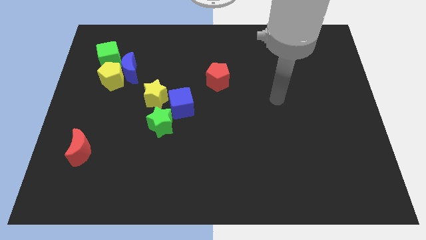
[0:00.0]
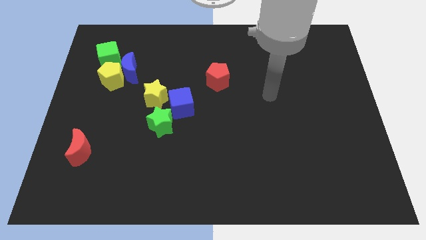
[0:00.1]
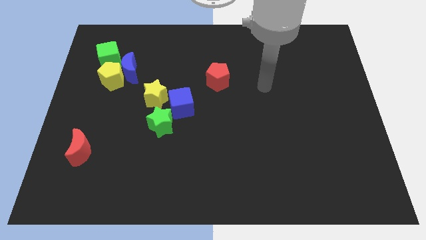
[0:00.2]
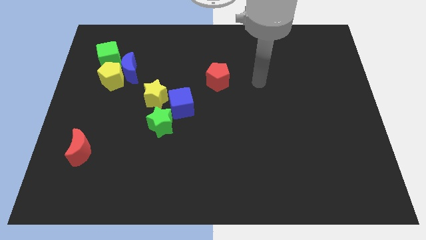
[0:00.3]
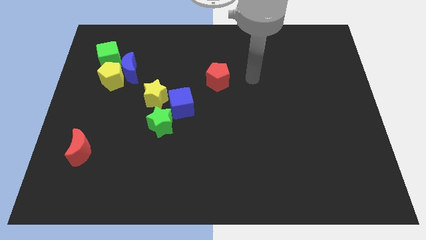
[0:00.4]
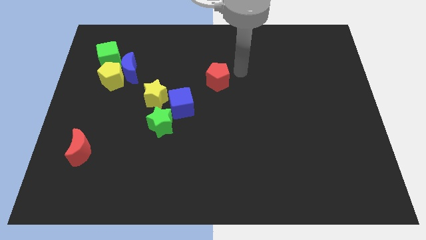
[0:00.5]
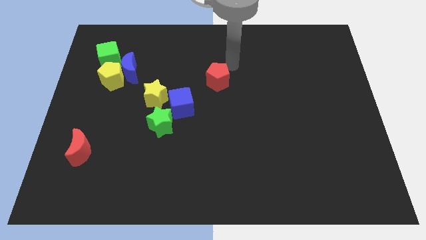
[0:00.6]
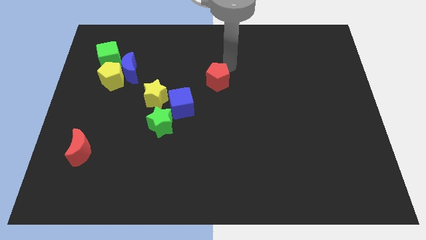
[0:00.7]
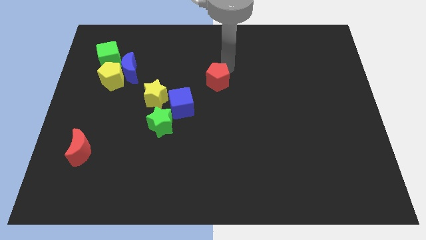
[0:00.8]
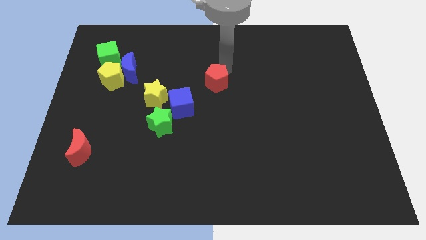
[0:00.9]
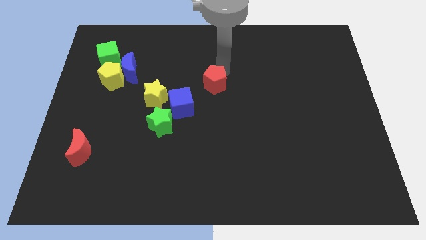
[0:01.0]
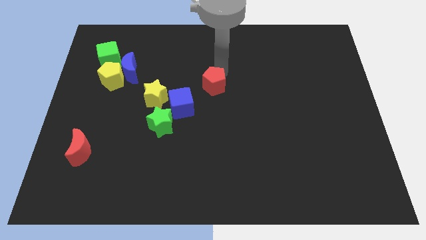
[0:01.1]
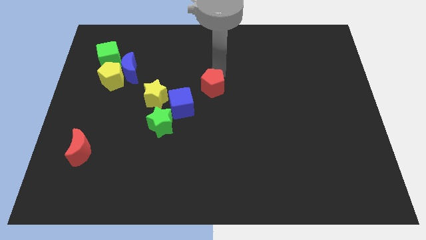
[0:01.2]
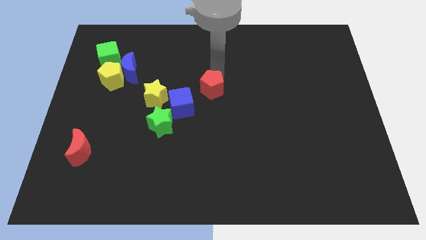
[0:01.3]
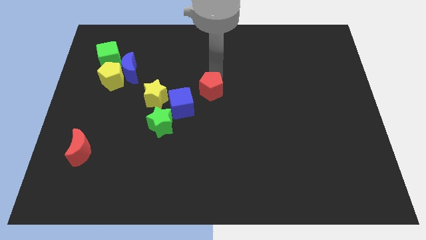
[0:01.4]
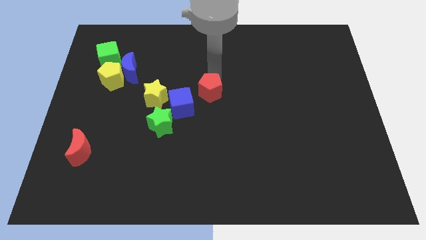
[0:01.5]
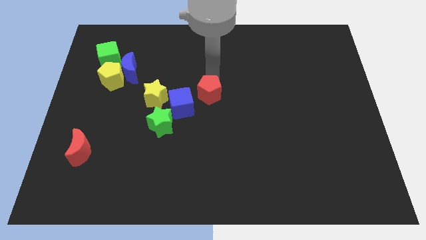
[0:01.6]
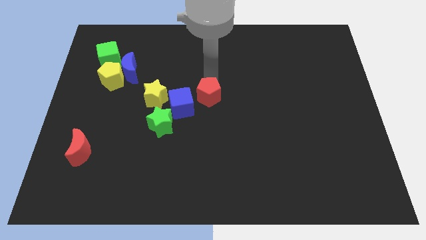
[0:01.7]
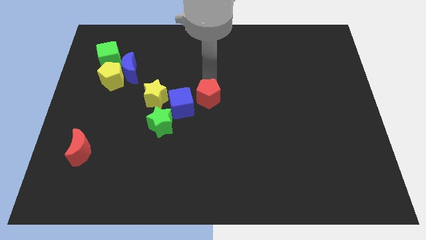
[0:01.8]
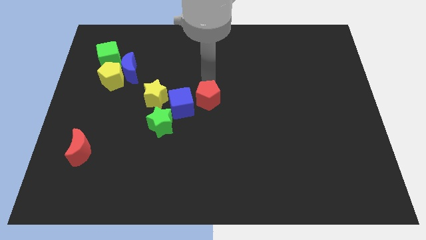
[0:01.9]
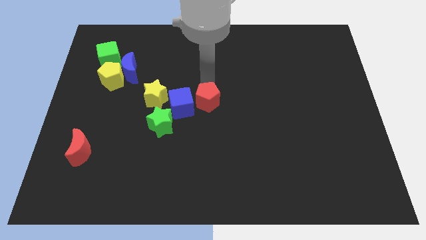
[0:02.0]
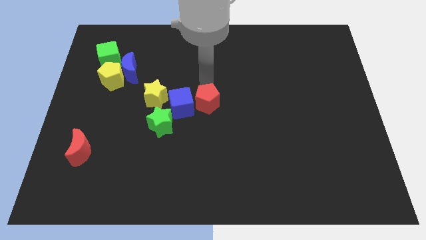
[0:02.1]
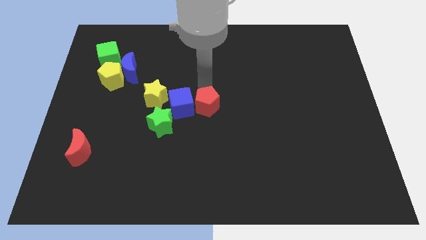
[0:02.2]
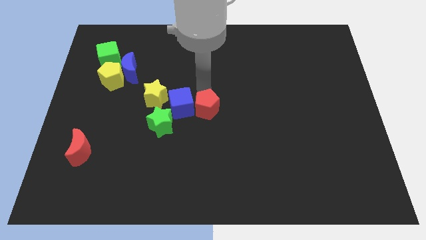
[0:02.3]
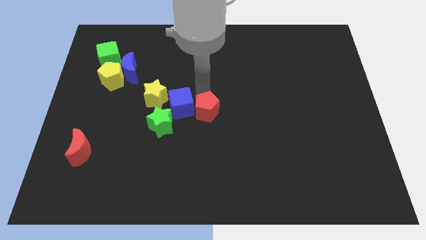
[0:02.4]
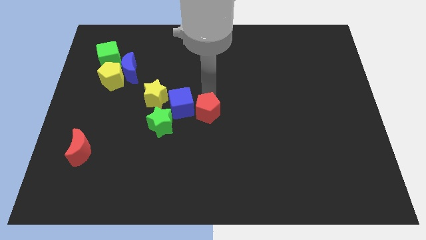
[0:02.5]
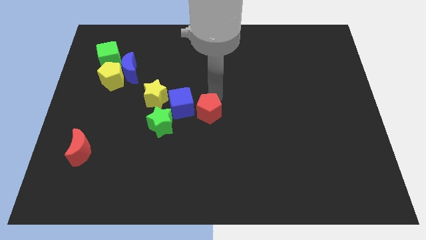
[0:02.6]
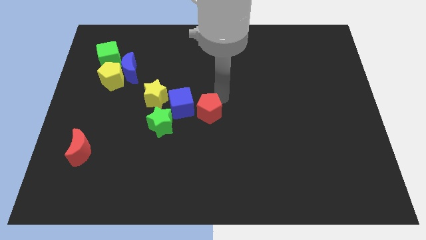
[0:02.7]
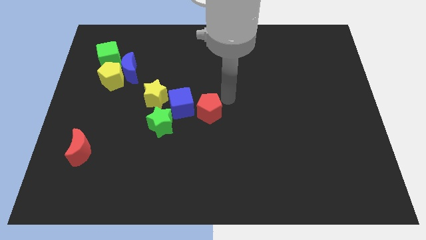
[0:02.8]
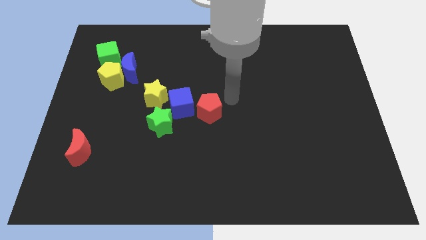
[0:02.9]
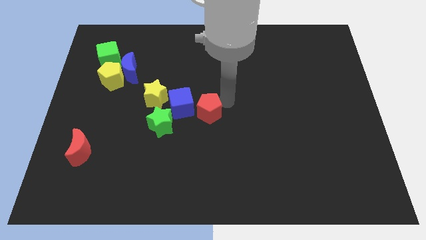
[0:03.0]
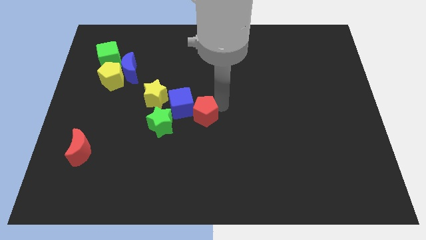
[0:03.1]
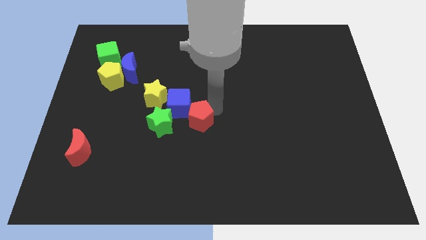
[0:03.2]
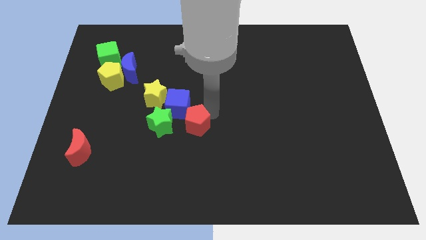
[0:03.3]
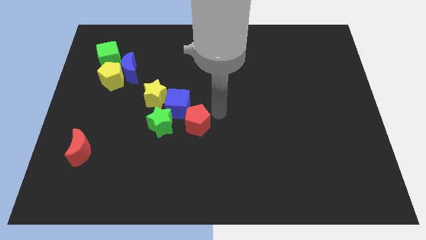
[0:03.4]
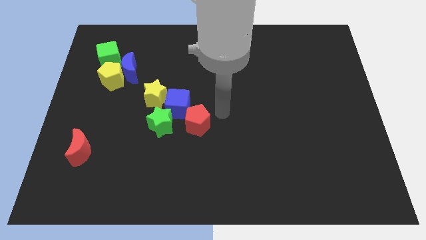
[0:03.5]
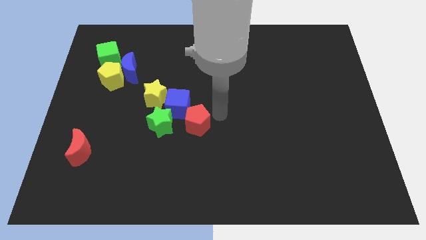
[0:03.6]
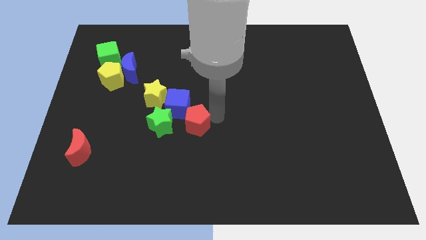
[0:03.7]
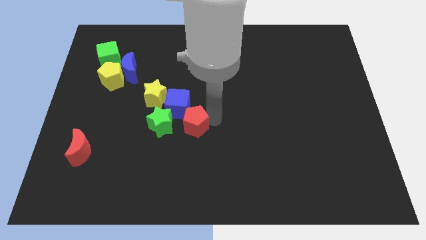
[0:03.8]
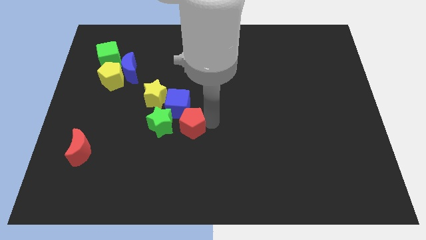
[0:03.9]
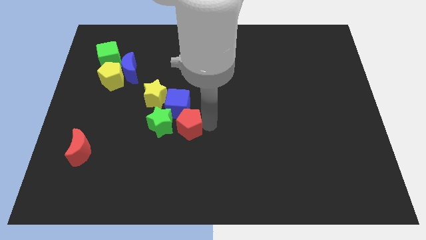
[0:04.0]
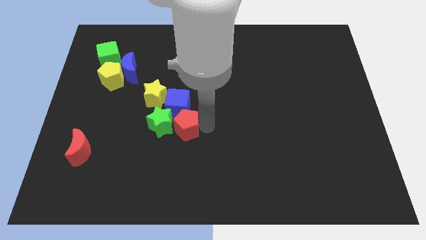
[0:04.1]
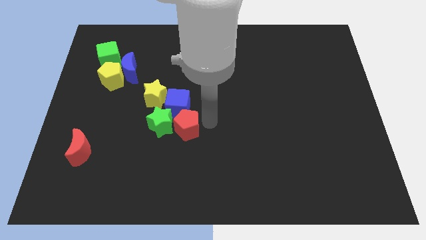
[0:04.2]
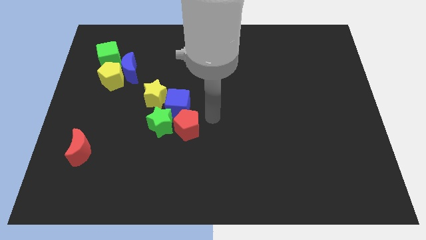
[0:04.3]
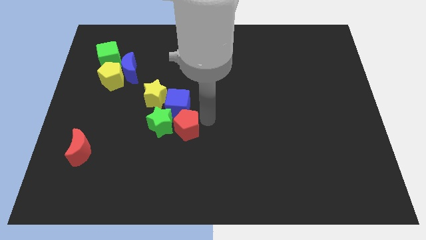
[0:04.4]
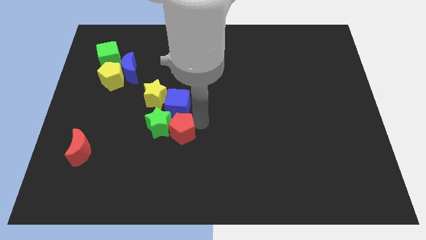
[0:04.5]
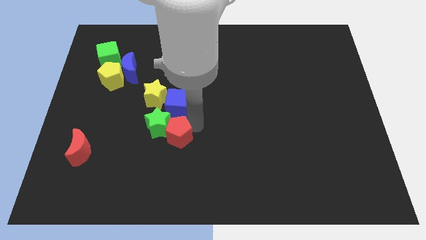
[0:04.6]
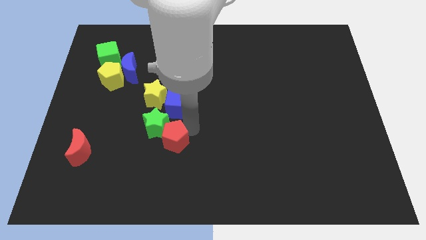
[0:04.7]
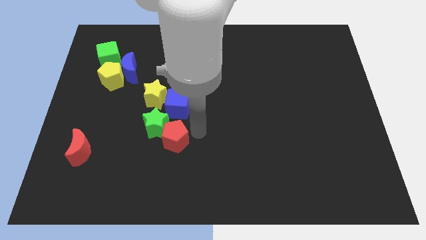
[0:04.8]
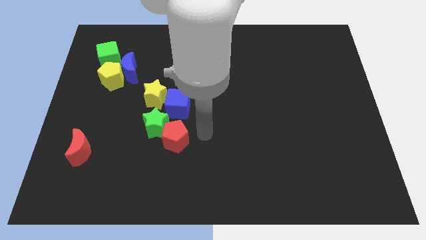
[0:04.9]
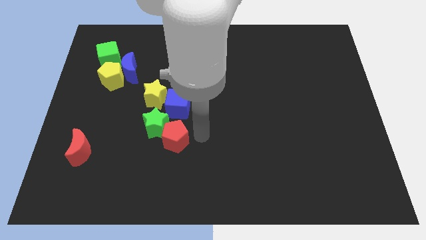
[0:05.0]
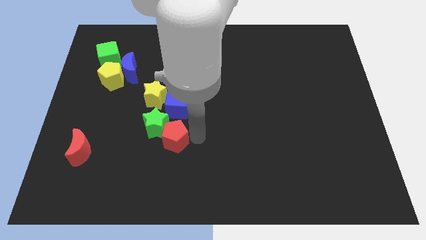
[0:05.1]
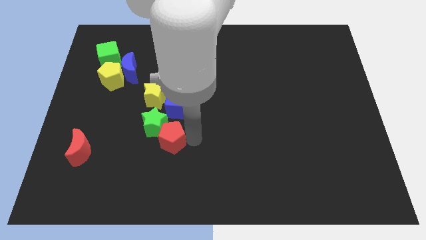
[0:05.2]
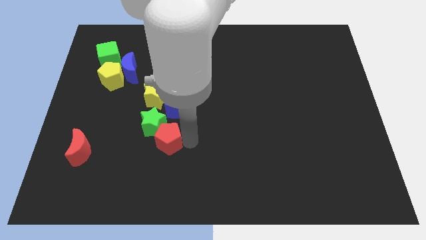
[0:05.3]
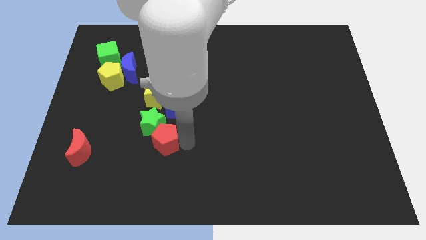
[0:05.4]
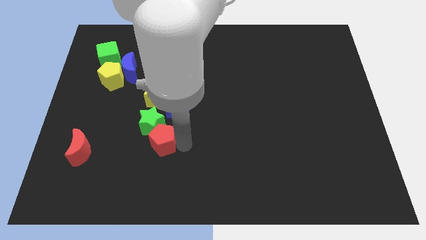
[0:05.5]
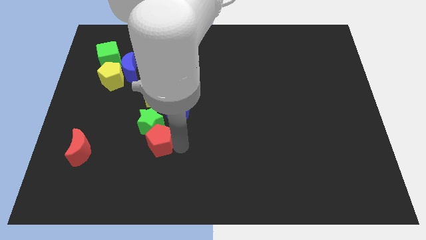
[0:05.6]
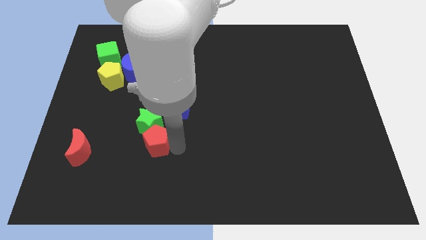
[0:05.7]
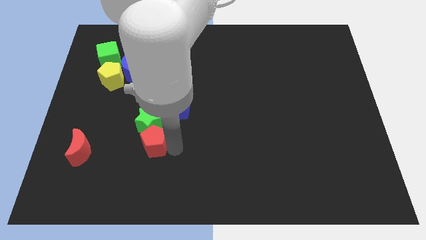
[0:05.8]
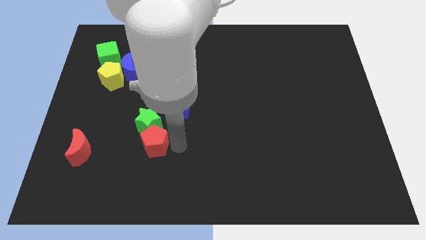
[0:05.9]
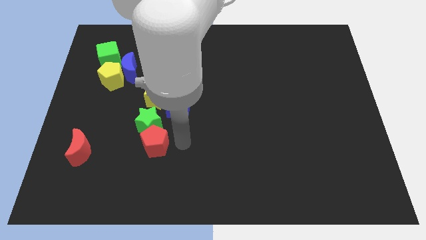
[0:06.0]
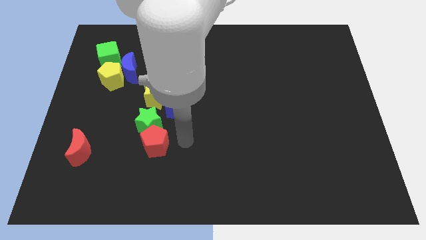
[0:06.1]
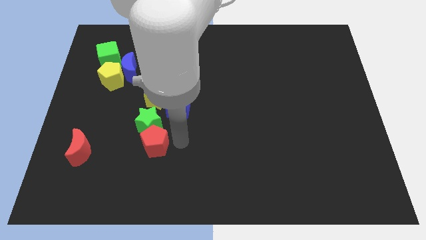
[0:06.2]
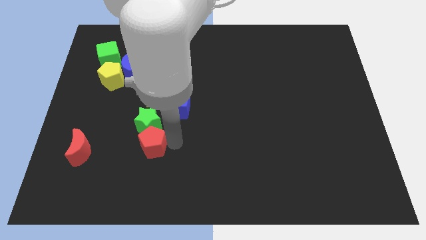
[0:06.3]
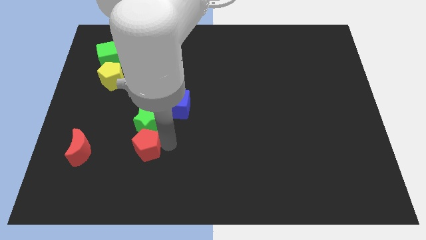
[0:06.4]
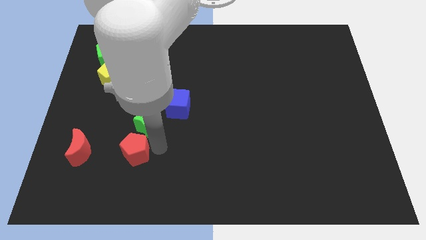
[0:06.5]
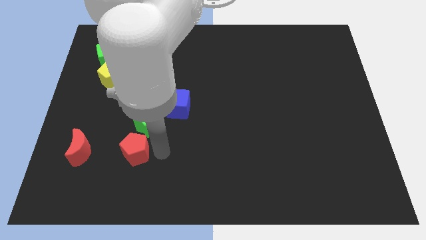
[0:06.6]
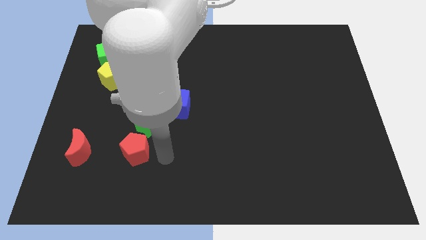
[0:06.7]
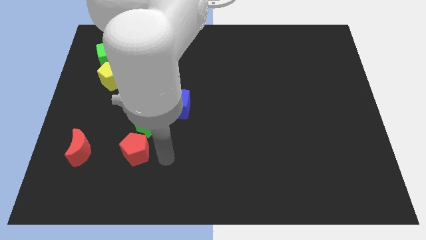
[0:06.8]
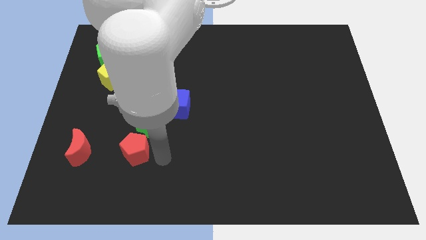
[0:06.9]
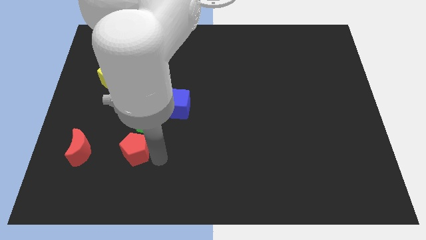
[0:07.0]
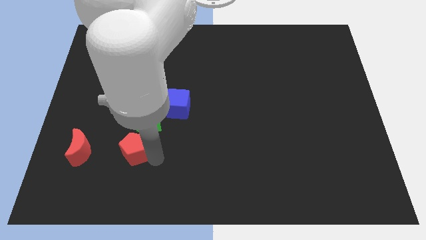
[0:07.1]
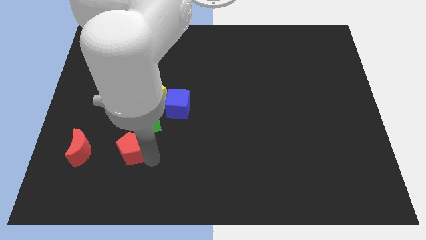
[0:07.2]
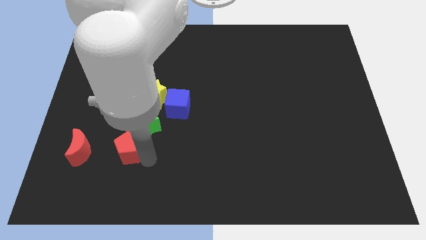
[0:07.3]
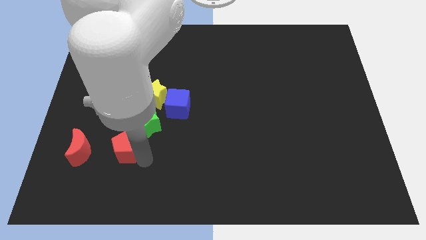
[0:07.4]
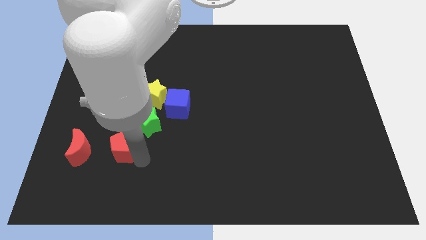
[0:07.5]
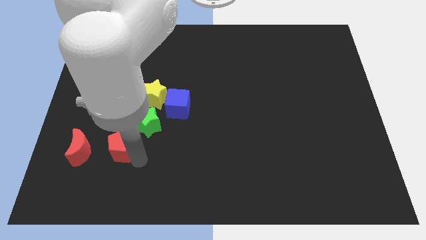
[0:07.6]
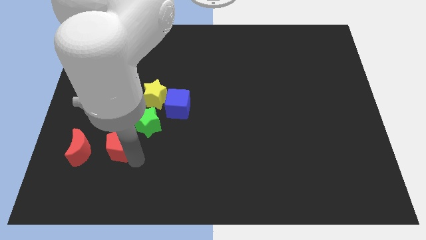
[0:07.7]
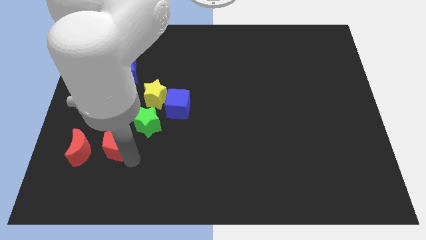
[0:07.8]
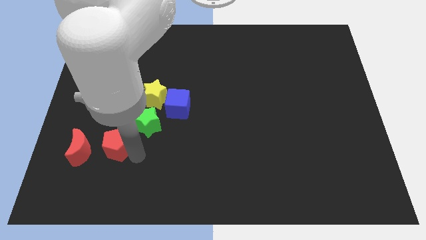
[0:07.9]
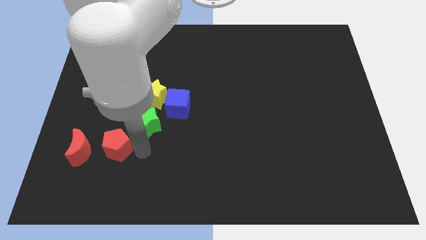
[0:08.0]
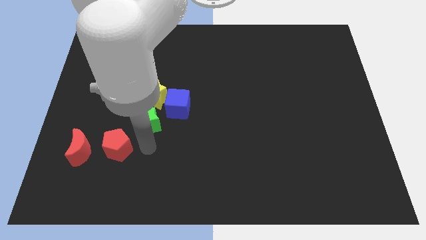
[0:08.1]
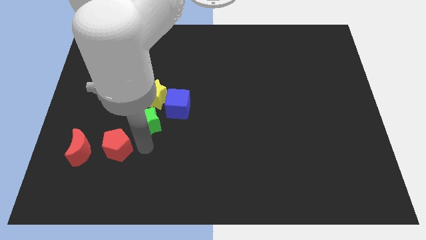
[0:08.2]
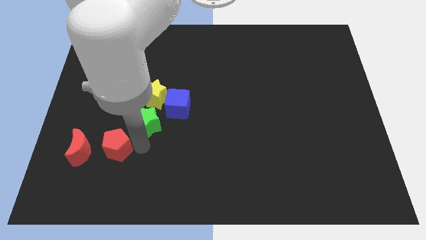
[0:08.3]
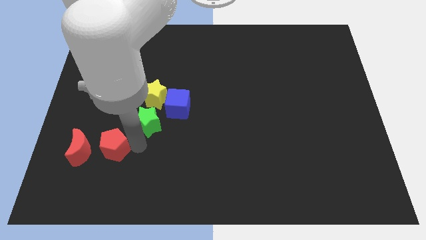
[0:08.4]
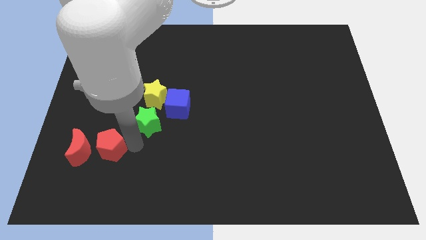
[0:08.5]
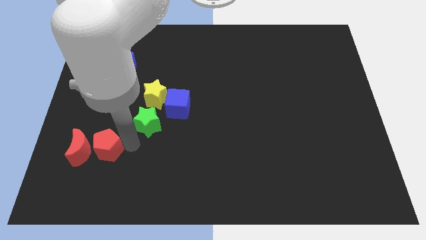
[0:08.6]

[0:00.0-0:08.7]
move the red pentagon towards the red moon
